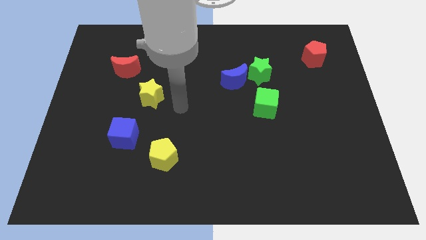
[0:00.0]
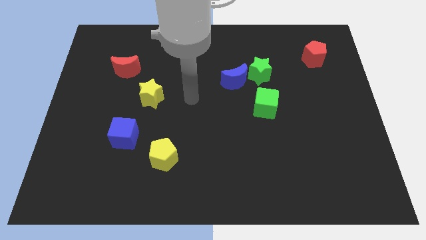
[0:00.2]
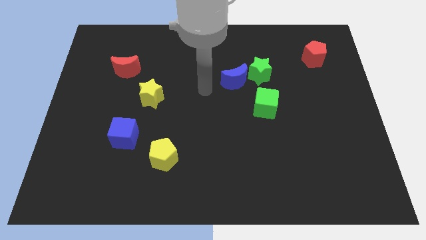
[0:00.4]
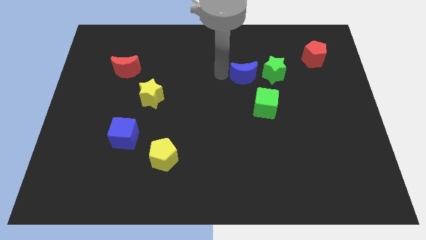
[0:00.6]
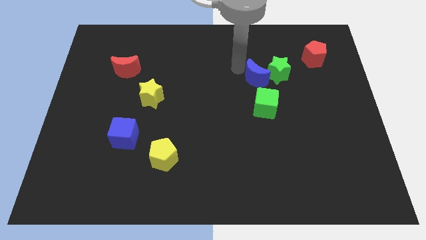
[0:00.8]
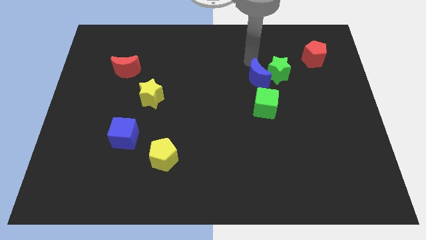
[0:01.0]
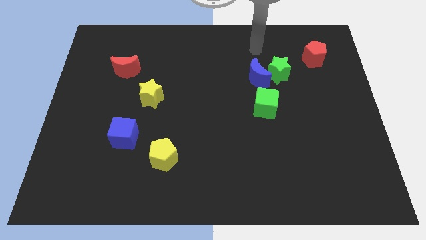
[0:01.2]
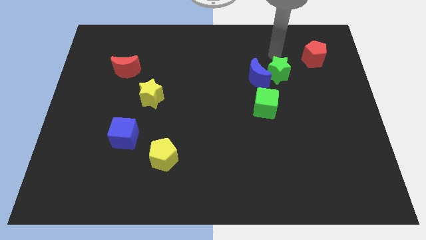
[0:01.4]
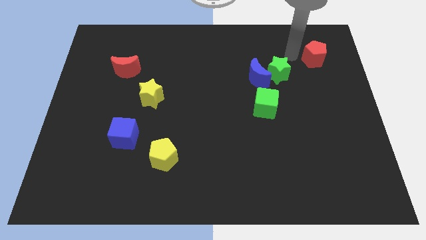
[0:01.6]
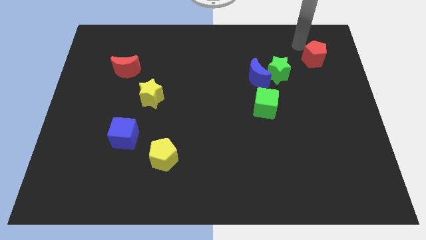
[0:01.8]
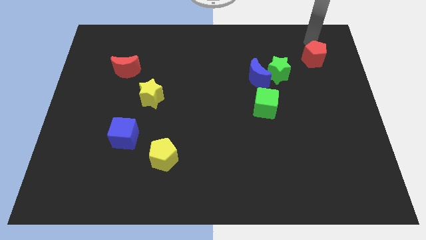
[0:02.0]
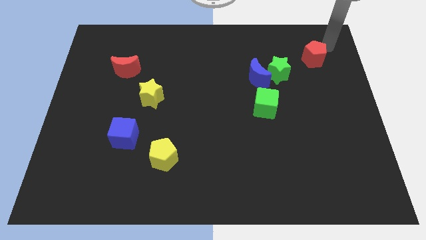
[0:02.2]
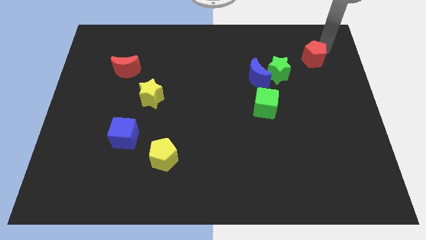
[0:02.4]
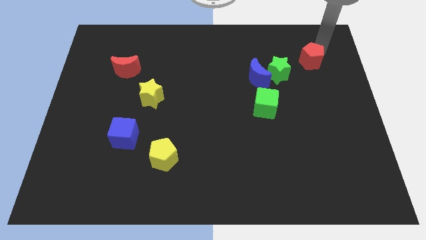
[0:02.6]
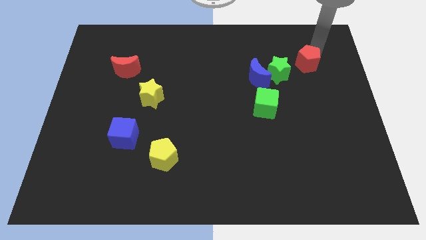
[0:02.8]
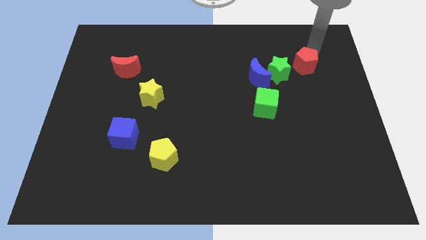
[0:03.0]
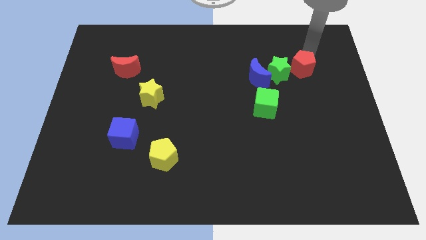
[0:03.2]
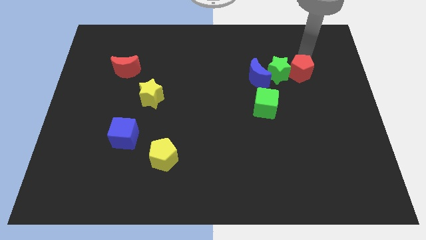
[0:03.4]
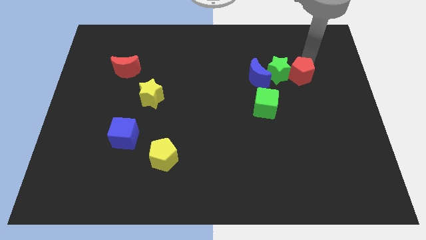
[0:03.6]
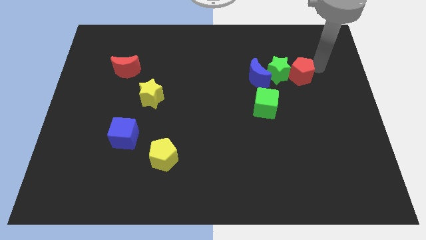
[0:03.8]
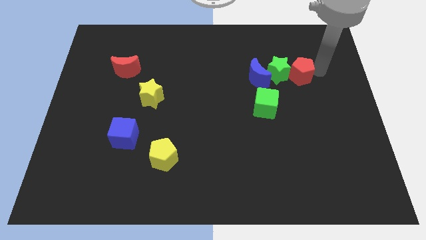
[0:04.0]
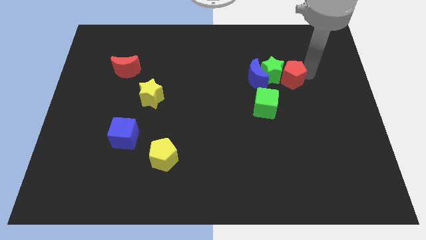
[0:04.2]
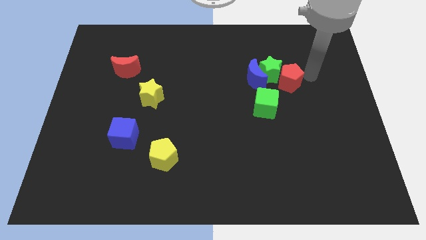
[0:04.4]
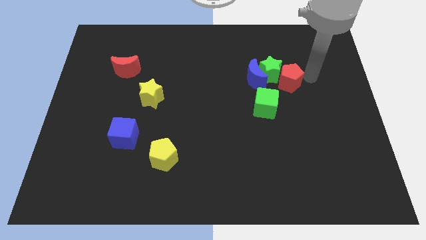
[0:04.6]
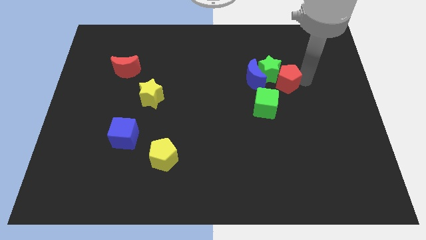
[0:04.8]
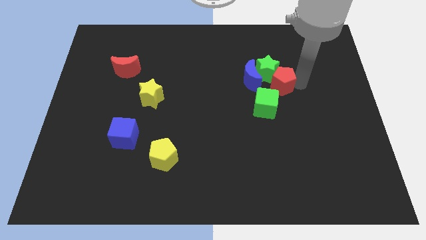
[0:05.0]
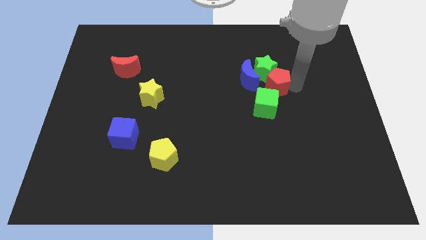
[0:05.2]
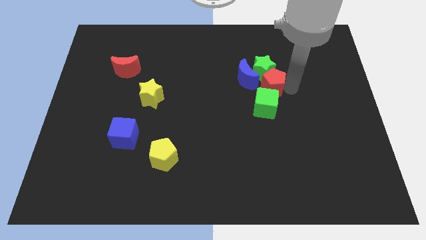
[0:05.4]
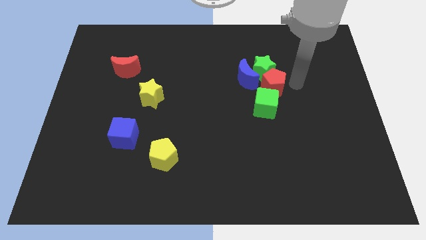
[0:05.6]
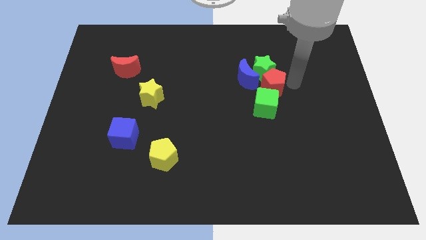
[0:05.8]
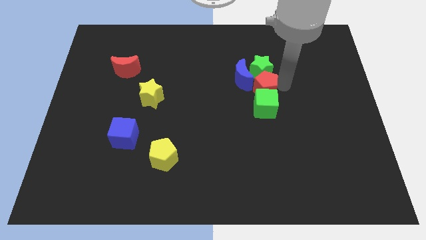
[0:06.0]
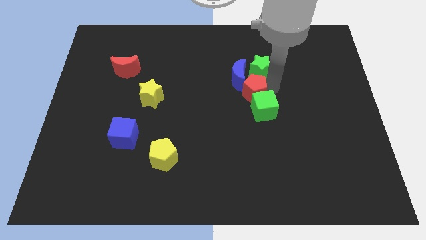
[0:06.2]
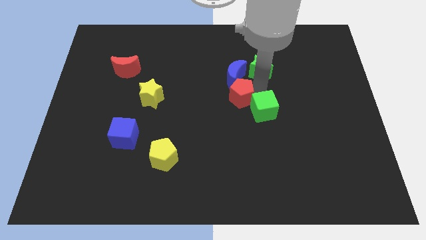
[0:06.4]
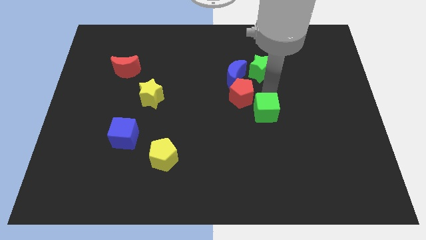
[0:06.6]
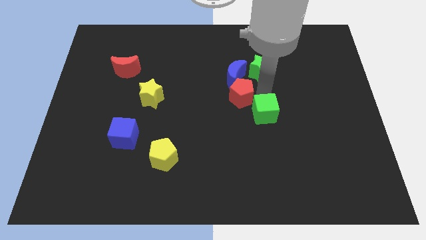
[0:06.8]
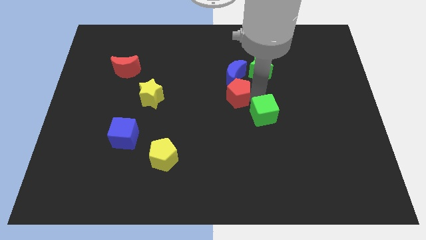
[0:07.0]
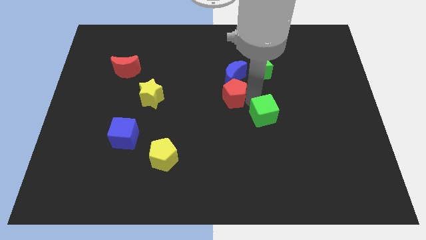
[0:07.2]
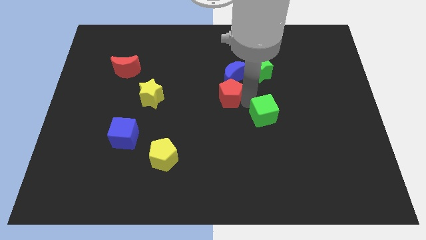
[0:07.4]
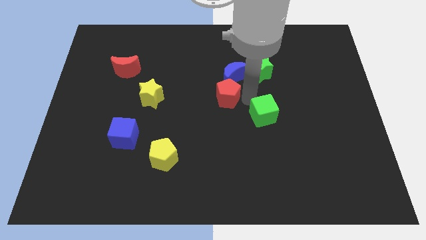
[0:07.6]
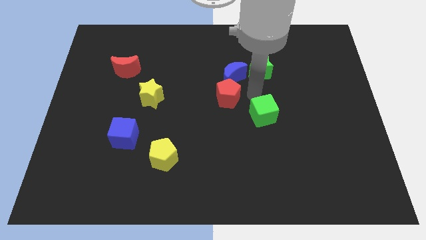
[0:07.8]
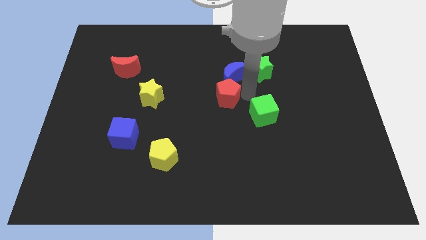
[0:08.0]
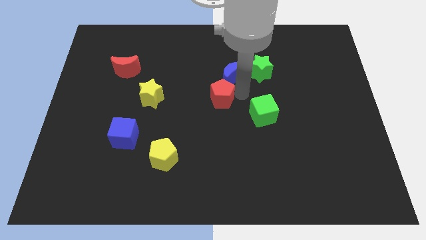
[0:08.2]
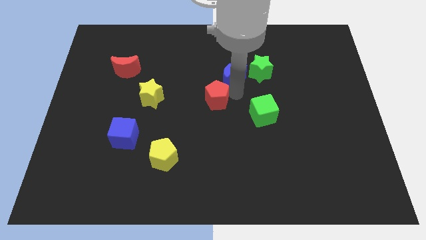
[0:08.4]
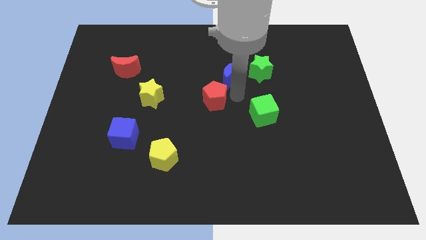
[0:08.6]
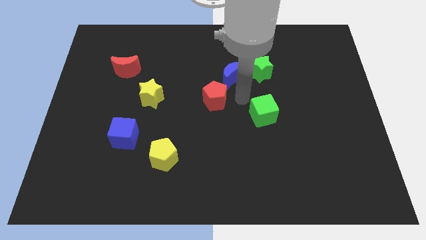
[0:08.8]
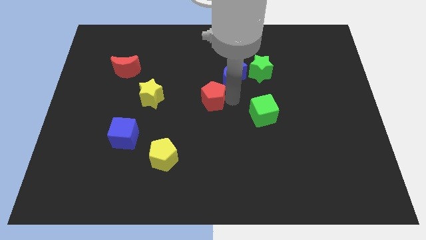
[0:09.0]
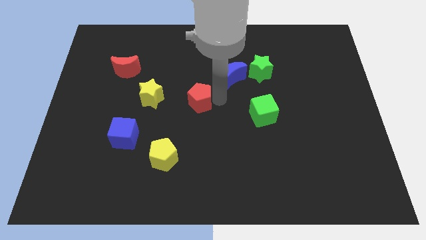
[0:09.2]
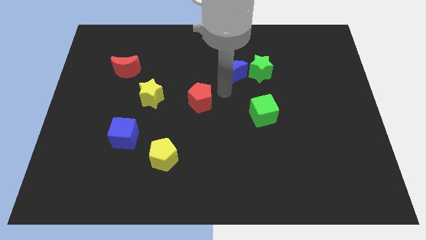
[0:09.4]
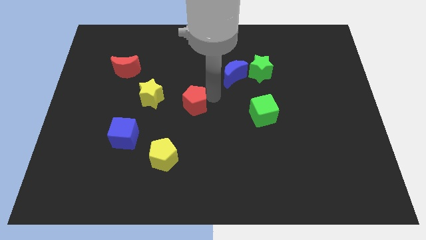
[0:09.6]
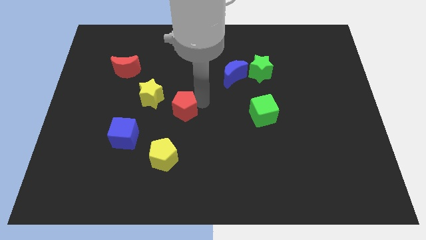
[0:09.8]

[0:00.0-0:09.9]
push the red pentagon to the top side of the yellow pentagon

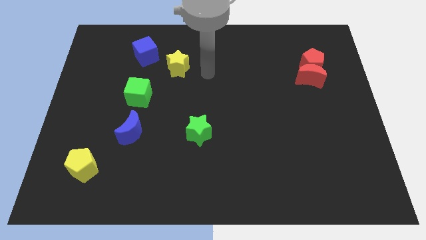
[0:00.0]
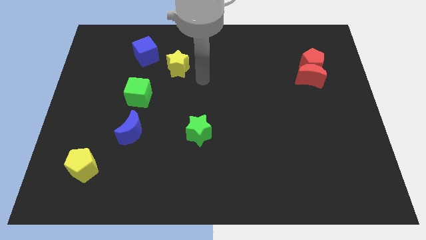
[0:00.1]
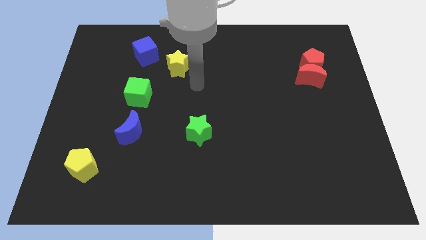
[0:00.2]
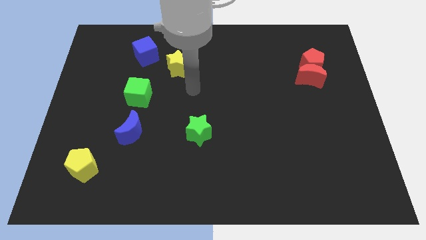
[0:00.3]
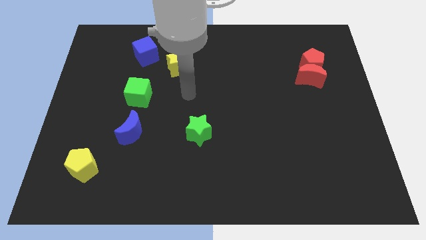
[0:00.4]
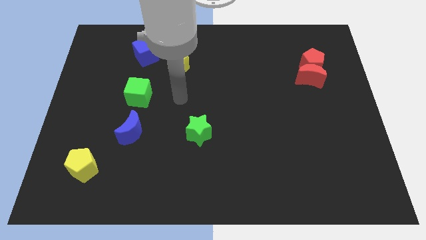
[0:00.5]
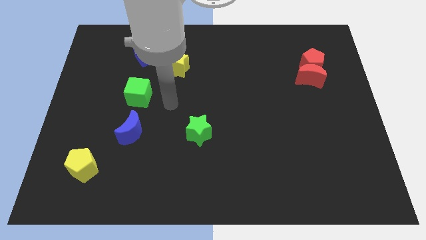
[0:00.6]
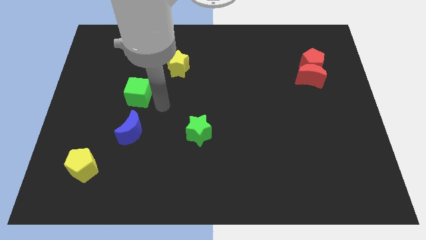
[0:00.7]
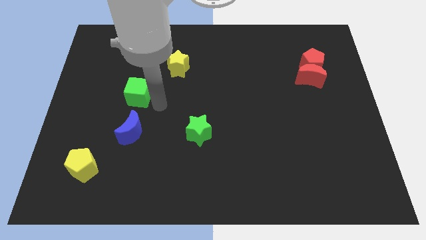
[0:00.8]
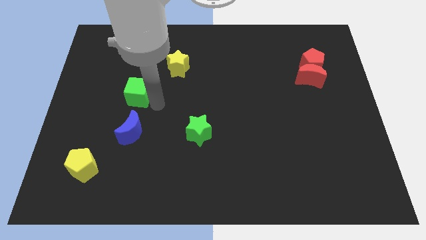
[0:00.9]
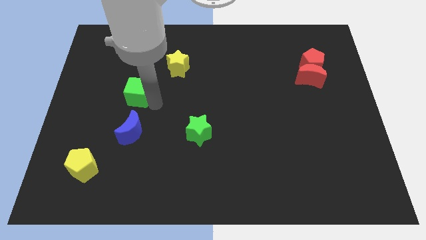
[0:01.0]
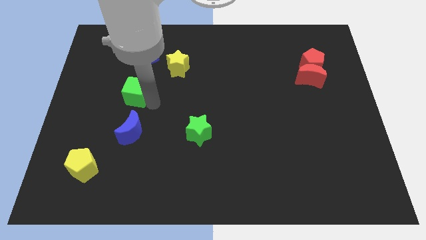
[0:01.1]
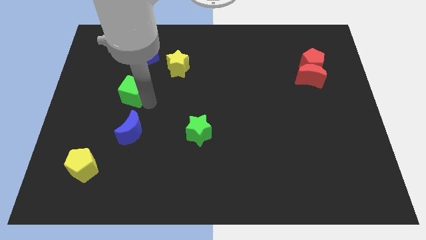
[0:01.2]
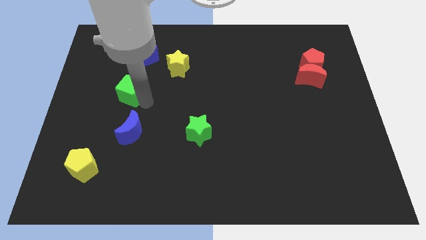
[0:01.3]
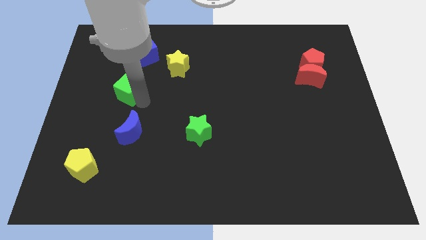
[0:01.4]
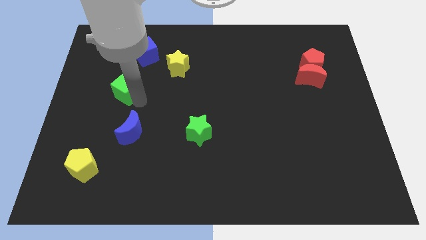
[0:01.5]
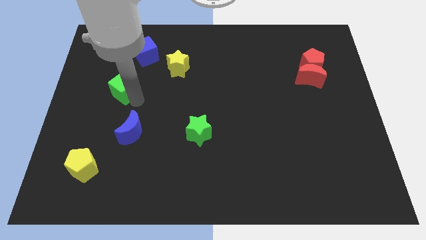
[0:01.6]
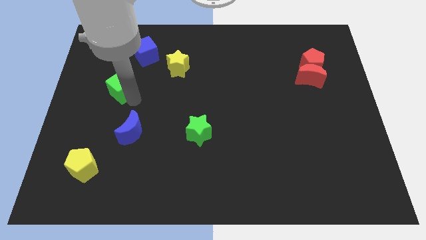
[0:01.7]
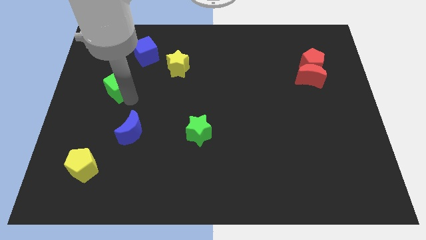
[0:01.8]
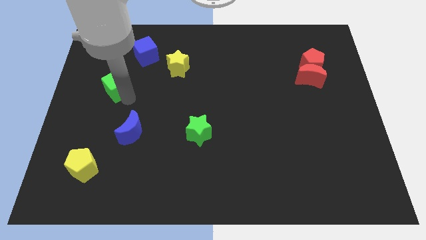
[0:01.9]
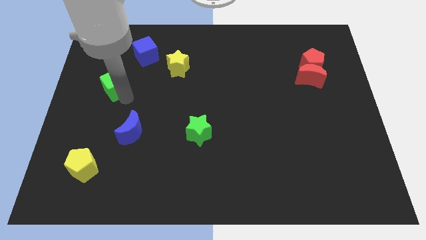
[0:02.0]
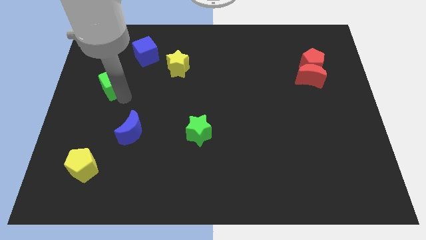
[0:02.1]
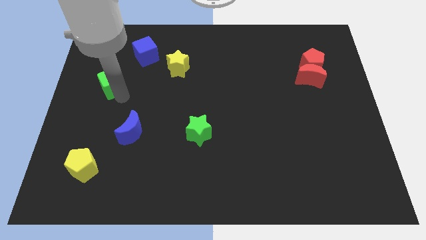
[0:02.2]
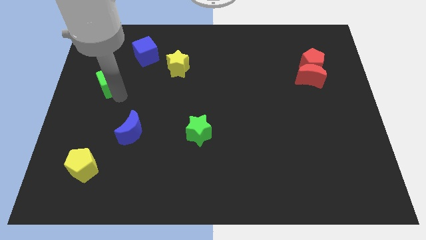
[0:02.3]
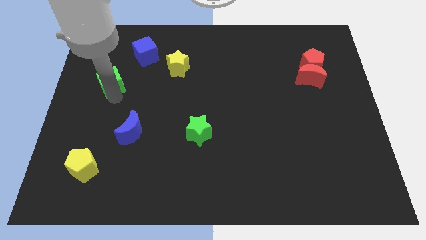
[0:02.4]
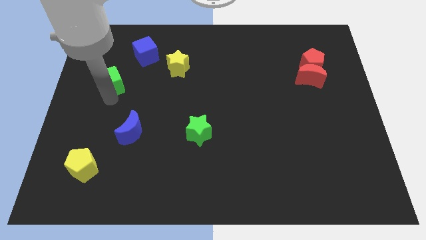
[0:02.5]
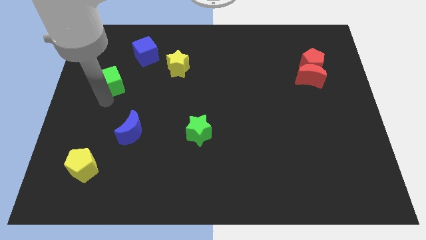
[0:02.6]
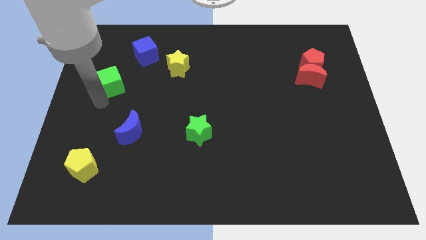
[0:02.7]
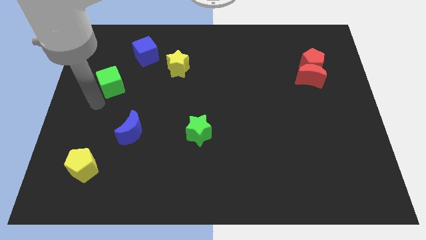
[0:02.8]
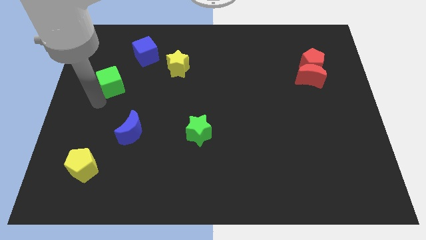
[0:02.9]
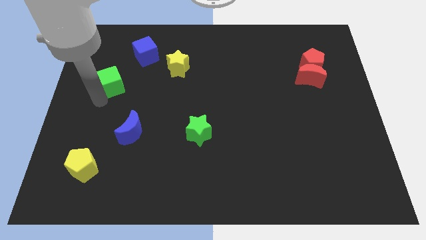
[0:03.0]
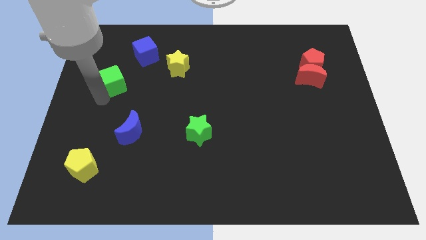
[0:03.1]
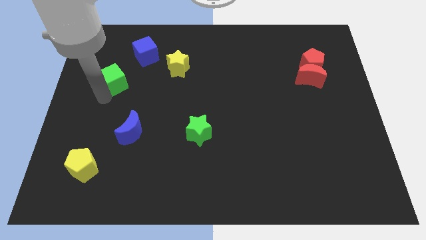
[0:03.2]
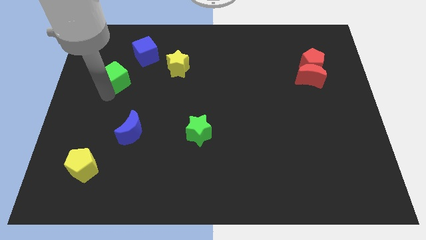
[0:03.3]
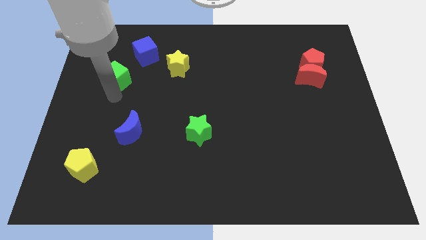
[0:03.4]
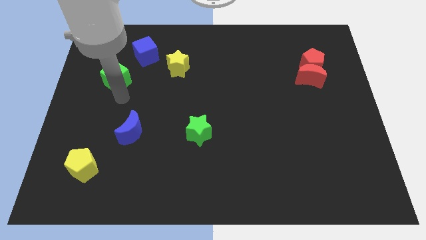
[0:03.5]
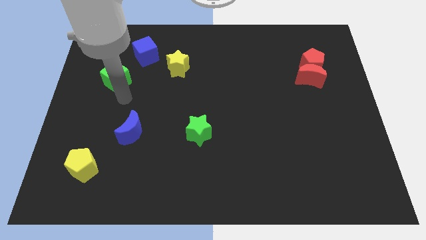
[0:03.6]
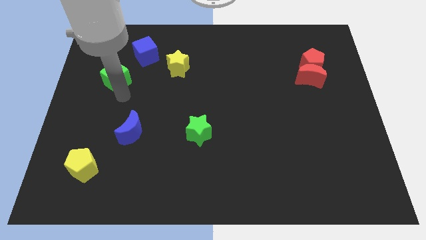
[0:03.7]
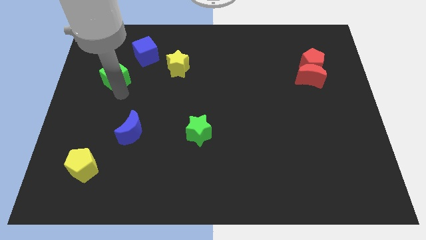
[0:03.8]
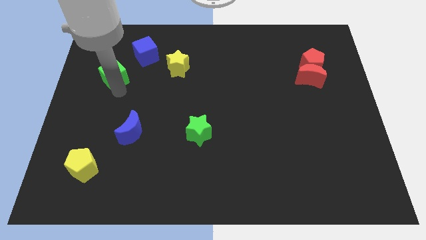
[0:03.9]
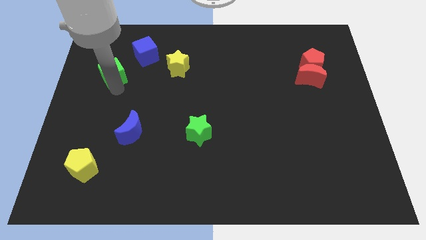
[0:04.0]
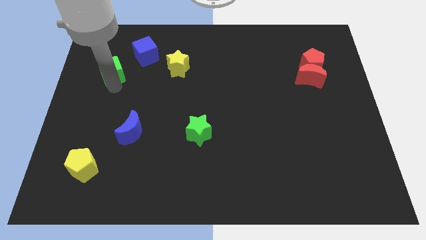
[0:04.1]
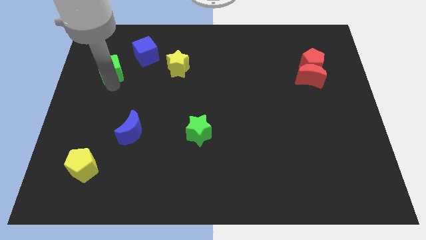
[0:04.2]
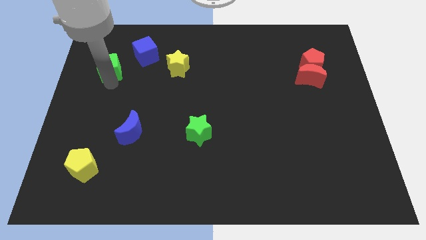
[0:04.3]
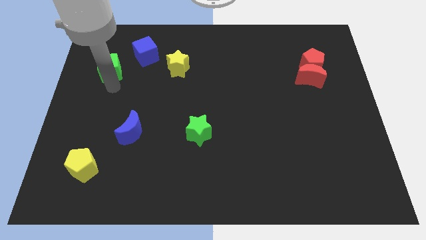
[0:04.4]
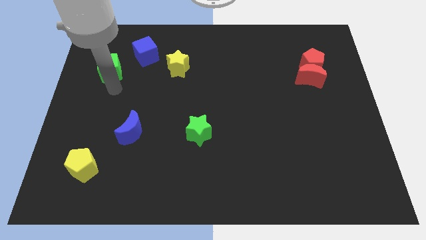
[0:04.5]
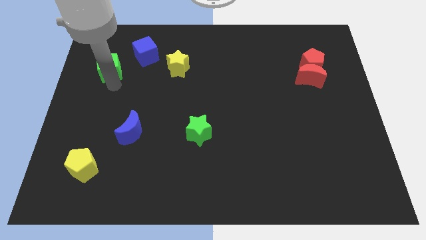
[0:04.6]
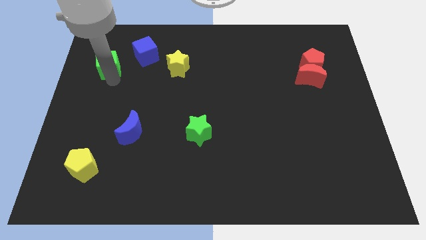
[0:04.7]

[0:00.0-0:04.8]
put the green cube to the left of the blue cube
